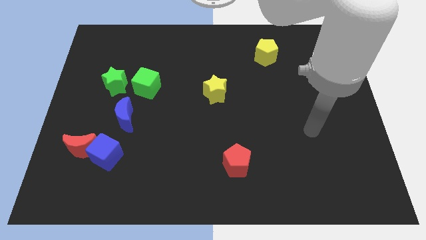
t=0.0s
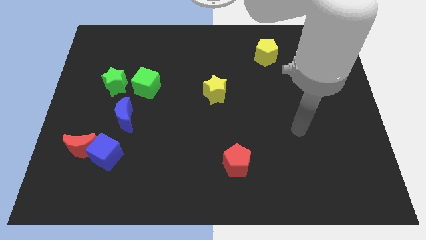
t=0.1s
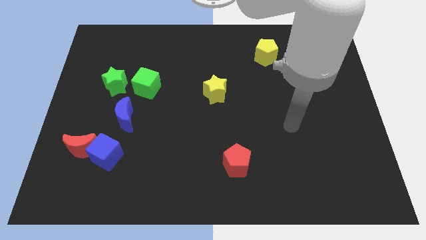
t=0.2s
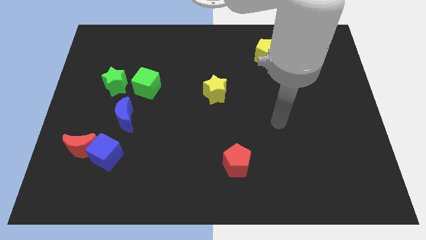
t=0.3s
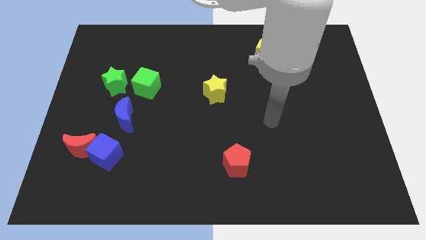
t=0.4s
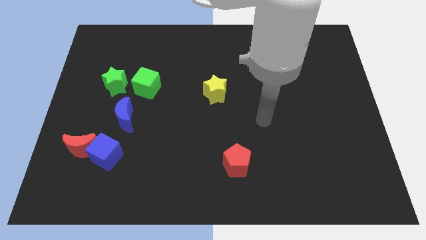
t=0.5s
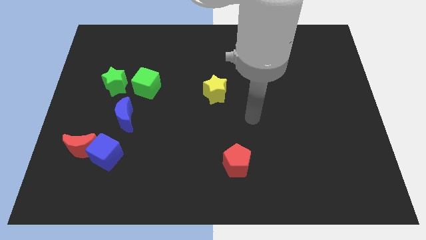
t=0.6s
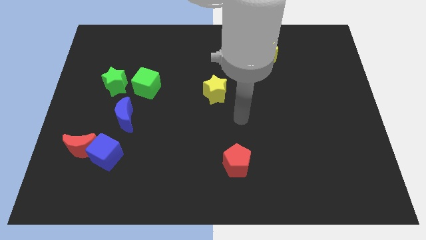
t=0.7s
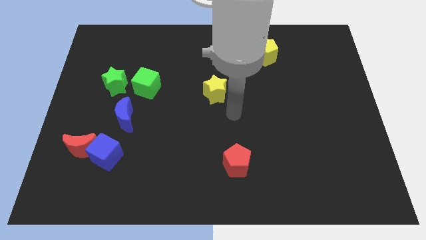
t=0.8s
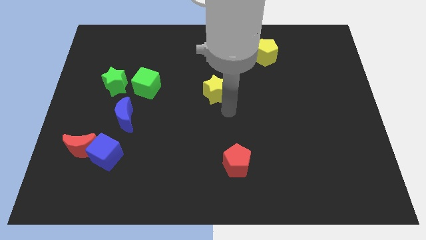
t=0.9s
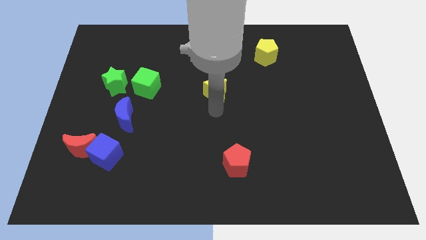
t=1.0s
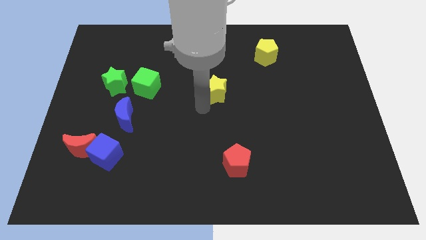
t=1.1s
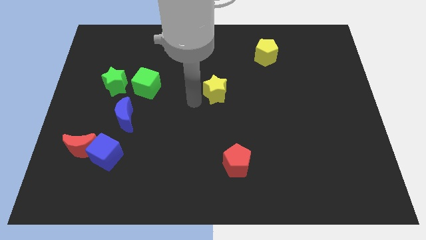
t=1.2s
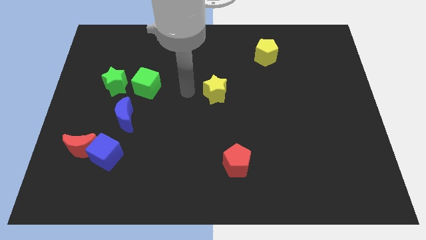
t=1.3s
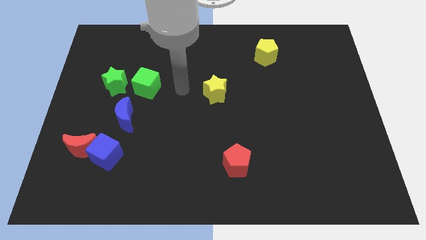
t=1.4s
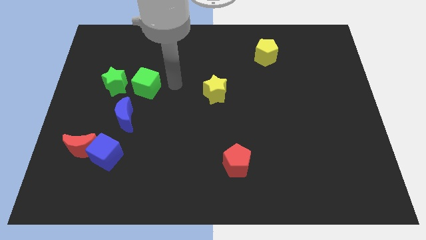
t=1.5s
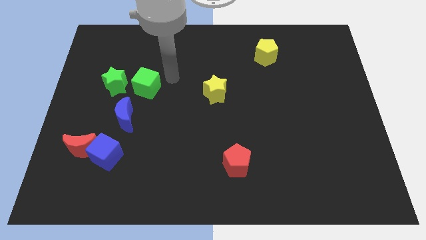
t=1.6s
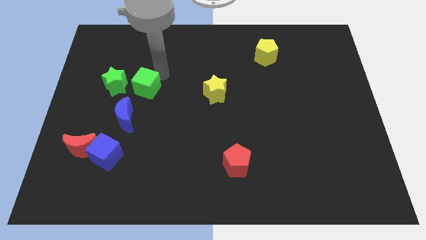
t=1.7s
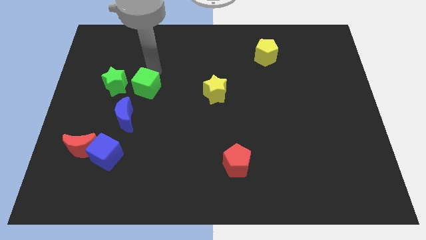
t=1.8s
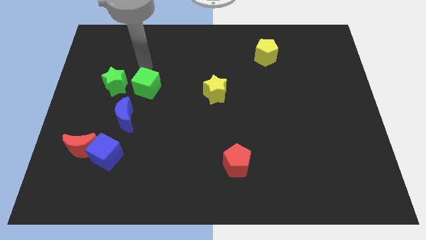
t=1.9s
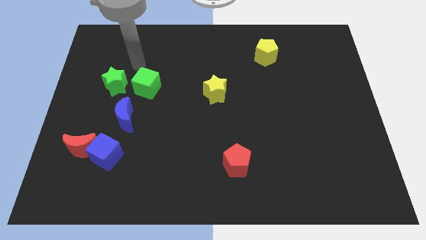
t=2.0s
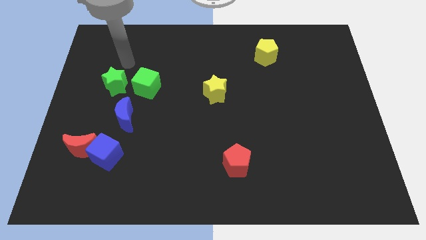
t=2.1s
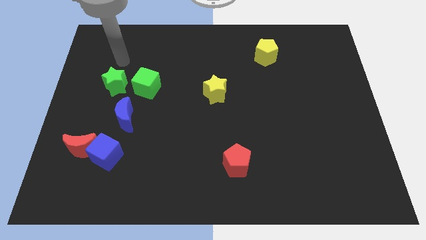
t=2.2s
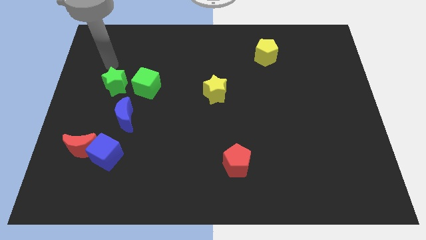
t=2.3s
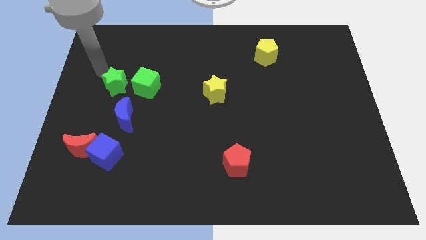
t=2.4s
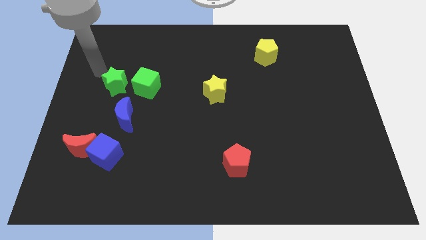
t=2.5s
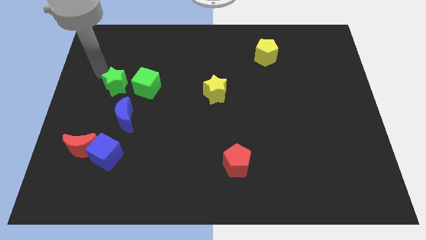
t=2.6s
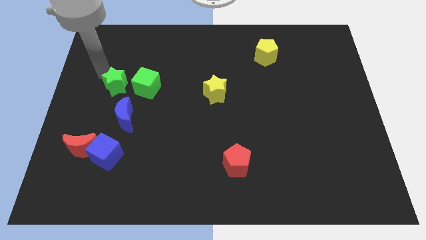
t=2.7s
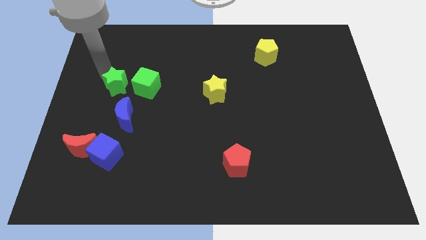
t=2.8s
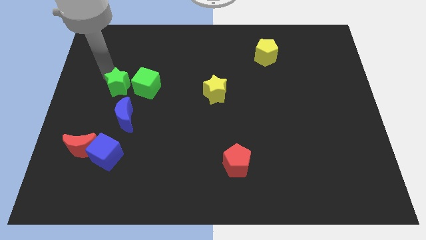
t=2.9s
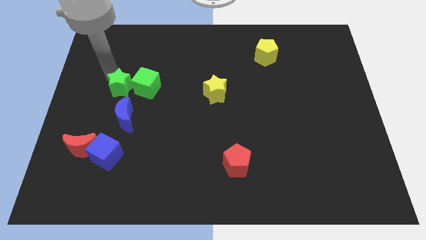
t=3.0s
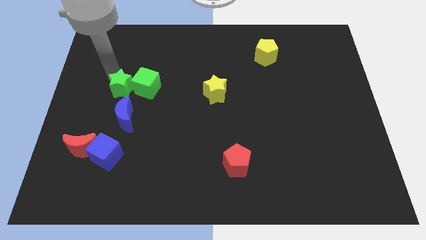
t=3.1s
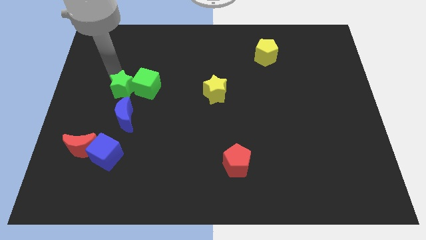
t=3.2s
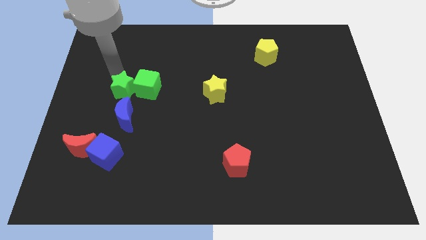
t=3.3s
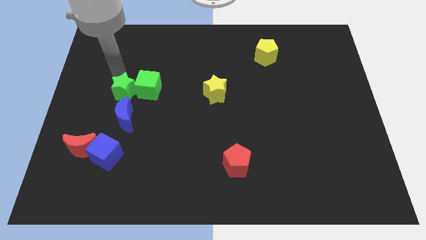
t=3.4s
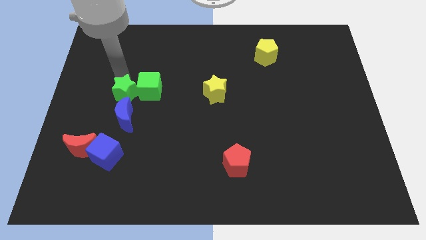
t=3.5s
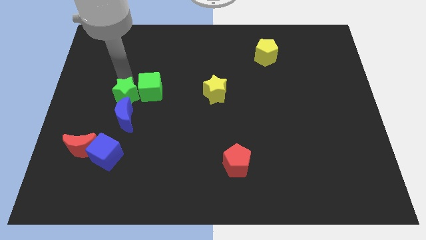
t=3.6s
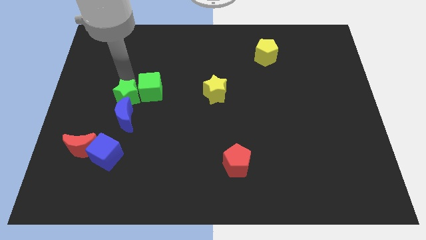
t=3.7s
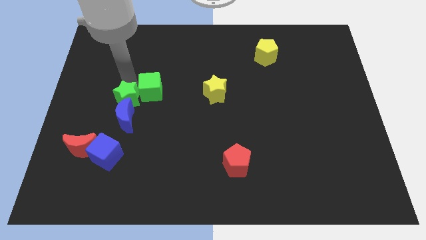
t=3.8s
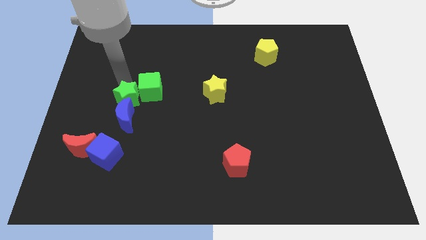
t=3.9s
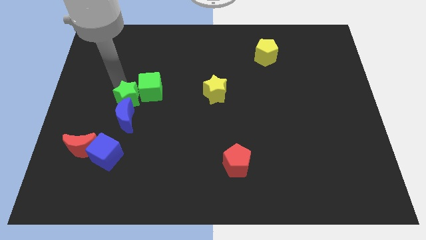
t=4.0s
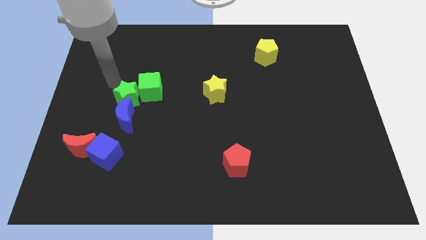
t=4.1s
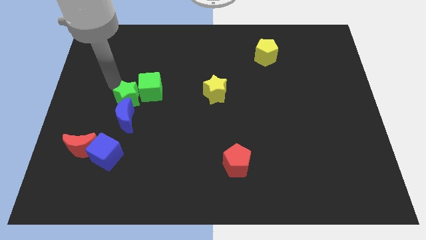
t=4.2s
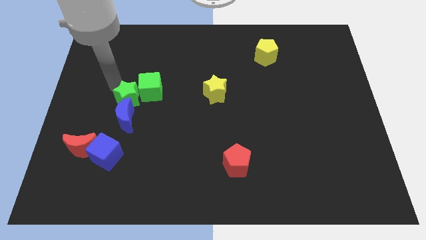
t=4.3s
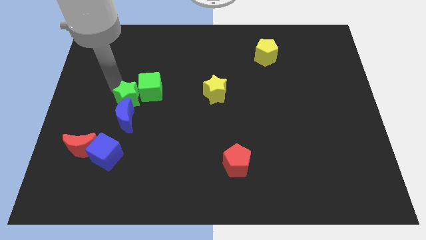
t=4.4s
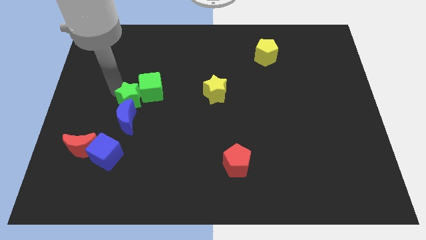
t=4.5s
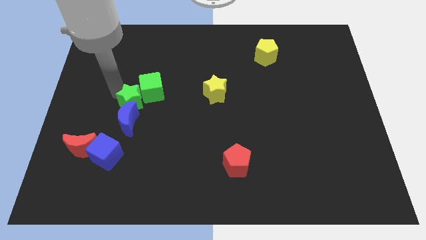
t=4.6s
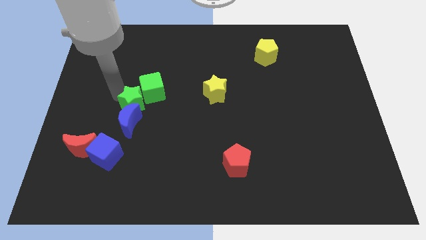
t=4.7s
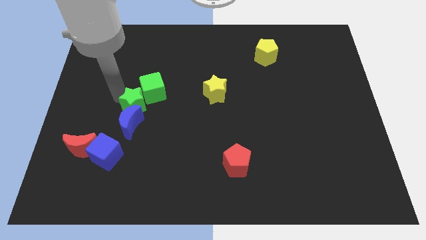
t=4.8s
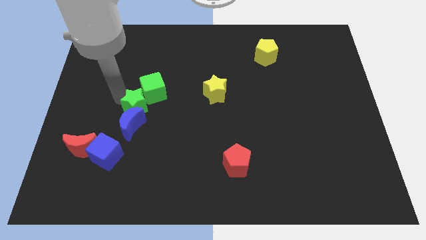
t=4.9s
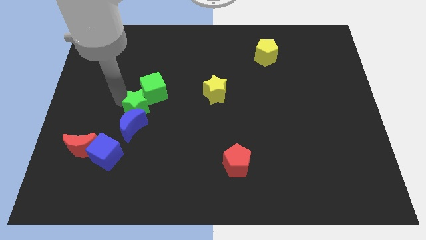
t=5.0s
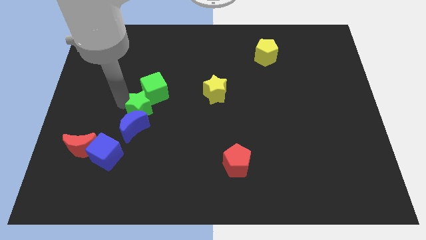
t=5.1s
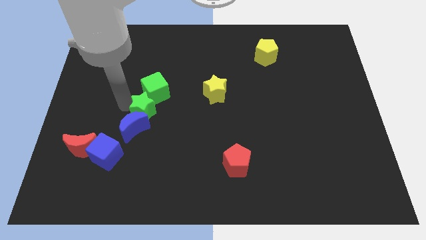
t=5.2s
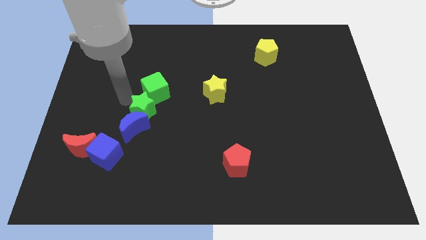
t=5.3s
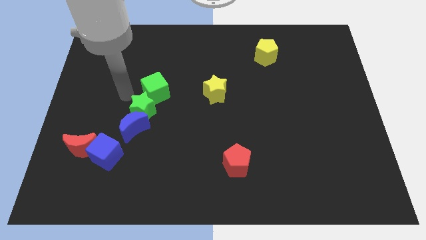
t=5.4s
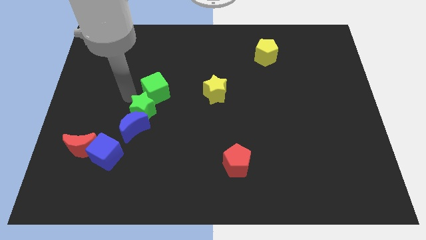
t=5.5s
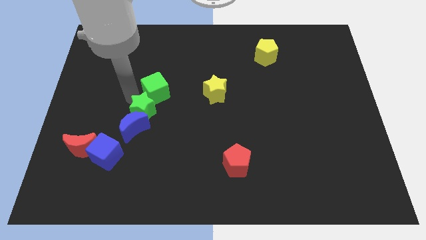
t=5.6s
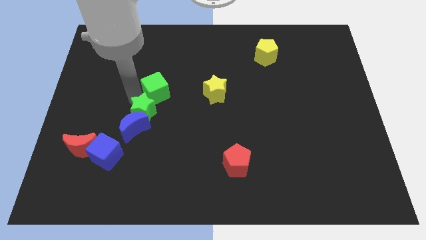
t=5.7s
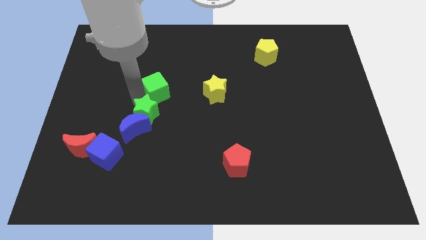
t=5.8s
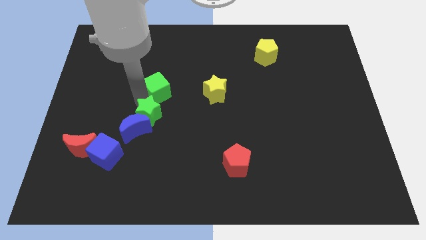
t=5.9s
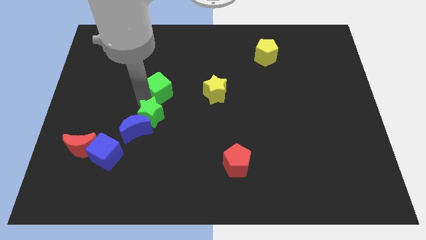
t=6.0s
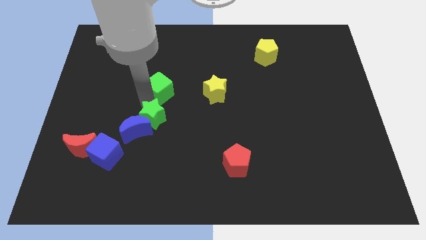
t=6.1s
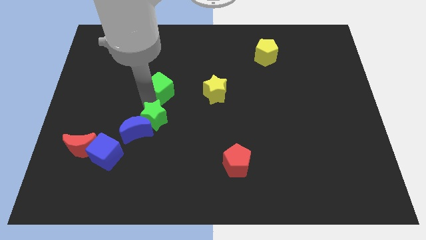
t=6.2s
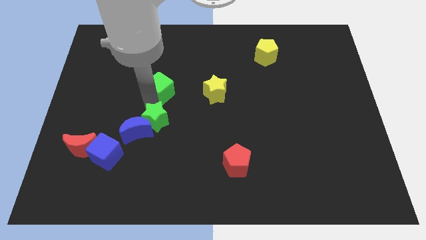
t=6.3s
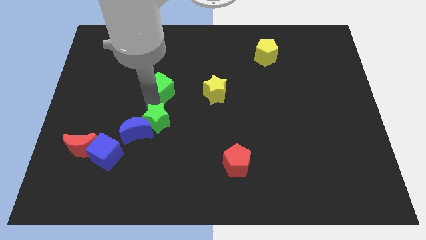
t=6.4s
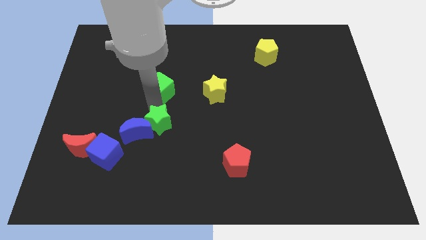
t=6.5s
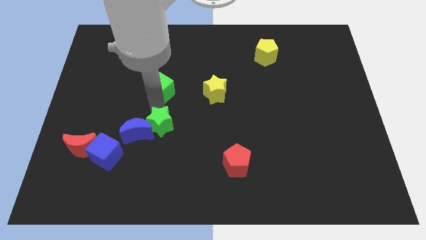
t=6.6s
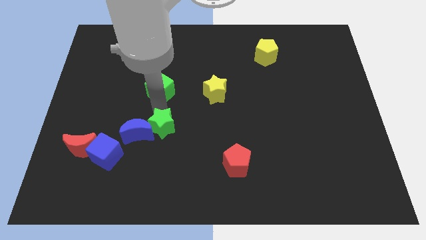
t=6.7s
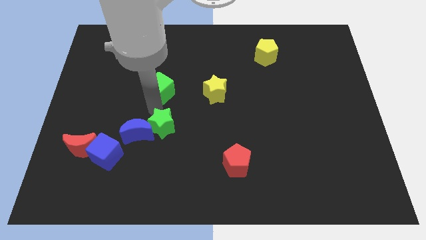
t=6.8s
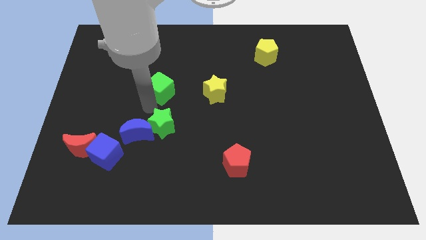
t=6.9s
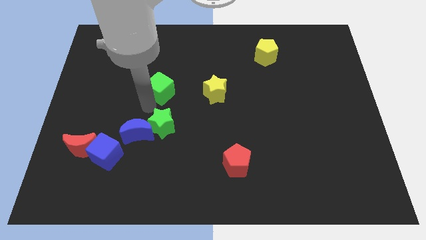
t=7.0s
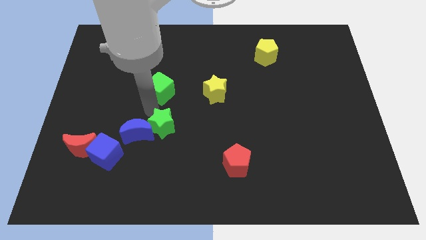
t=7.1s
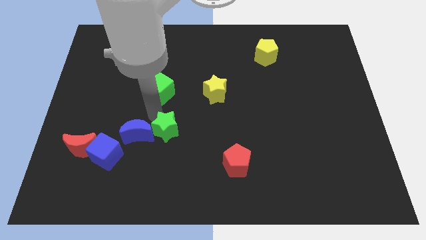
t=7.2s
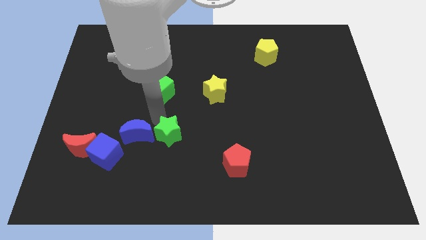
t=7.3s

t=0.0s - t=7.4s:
slide the green star down and to the right

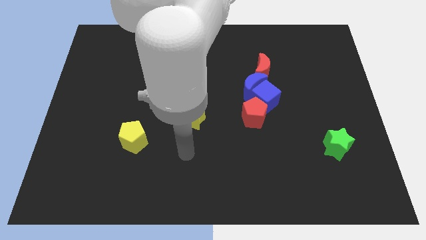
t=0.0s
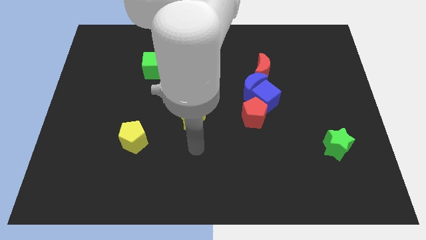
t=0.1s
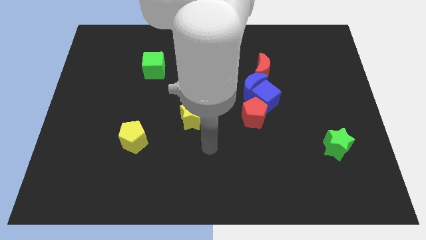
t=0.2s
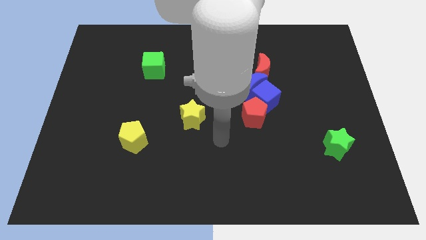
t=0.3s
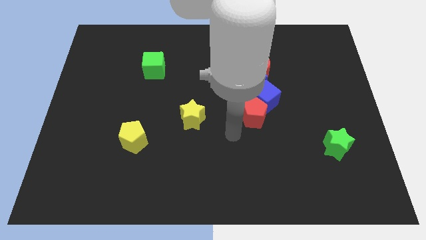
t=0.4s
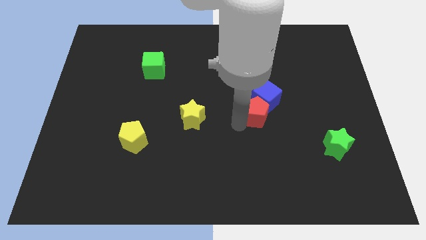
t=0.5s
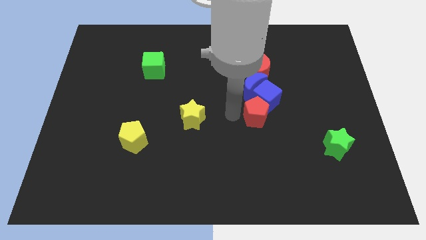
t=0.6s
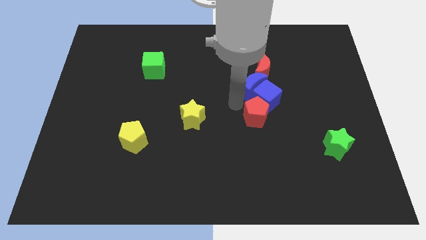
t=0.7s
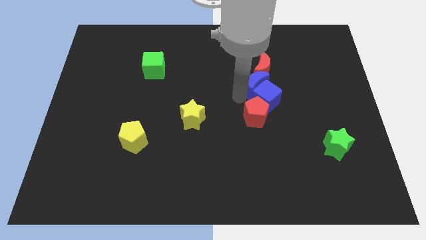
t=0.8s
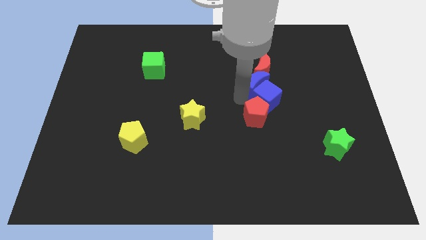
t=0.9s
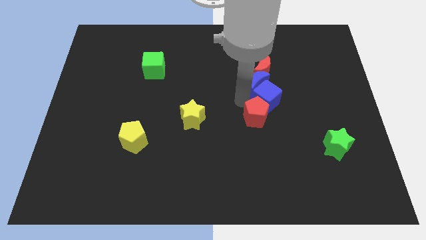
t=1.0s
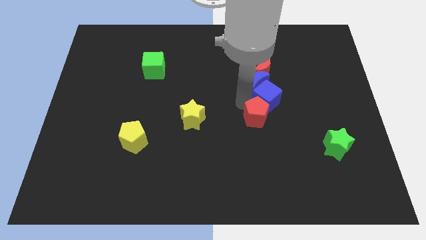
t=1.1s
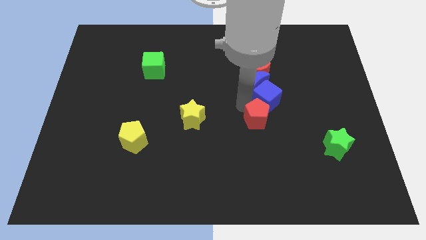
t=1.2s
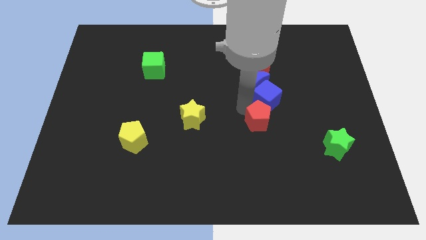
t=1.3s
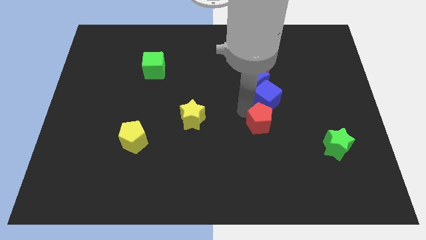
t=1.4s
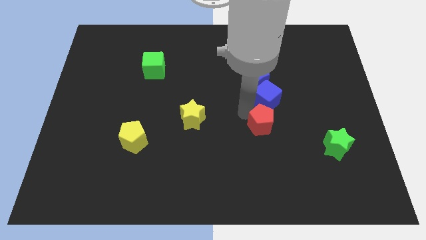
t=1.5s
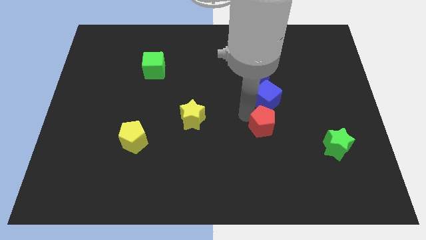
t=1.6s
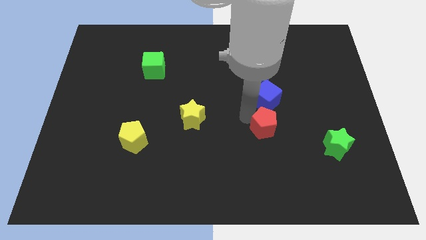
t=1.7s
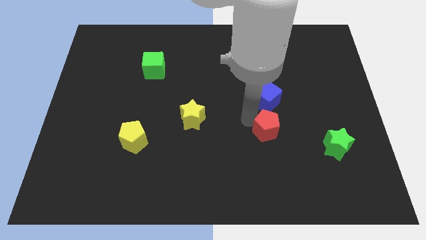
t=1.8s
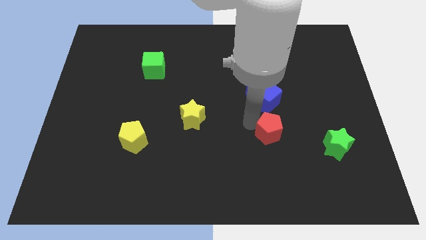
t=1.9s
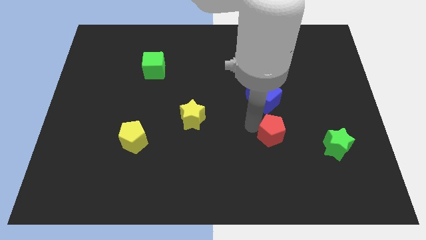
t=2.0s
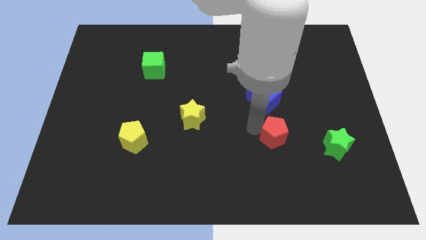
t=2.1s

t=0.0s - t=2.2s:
slide the red pentagon somewhat down and to the right
